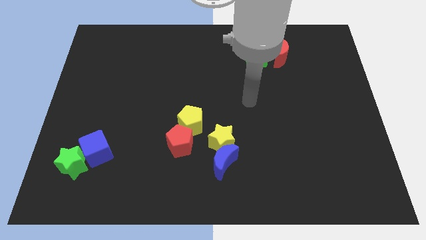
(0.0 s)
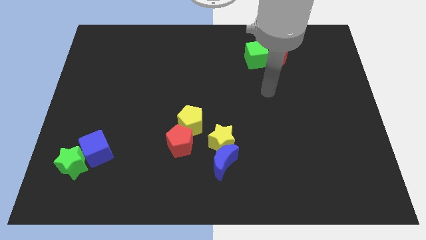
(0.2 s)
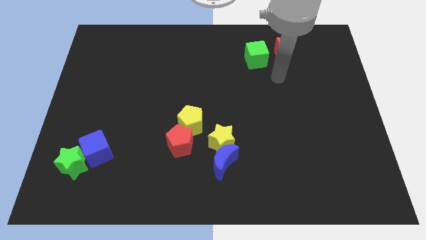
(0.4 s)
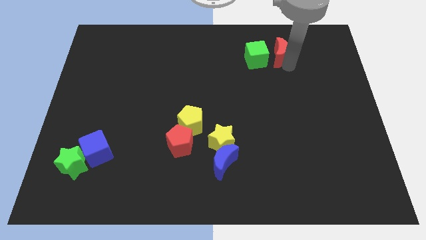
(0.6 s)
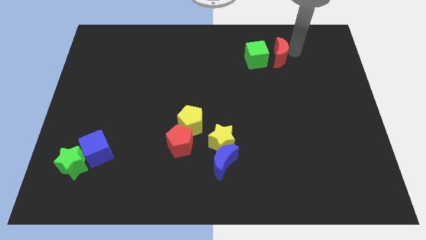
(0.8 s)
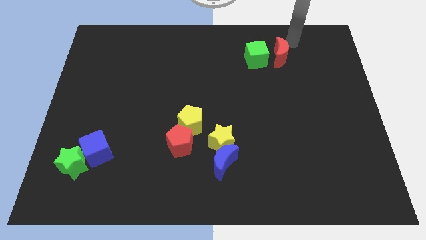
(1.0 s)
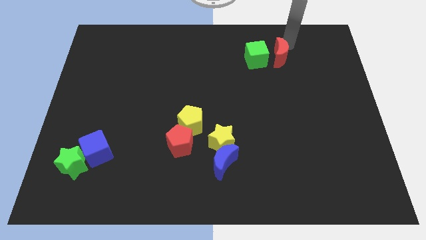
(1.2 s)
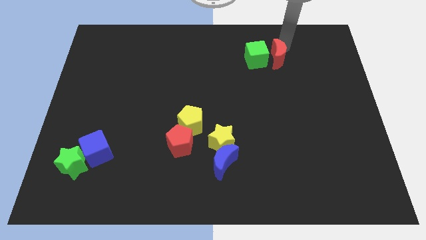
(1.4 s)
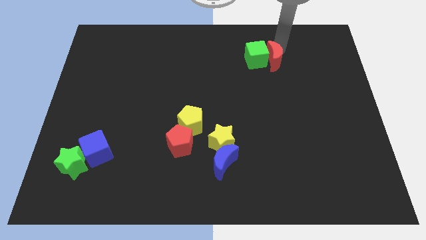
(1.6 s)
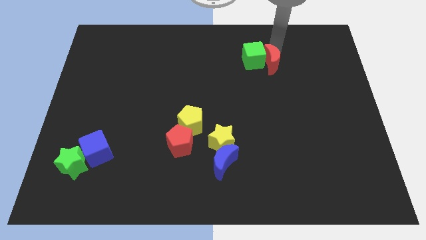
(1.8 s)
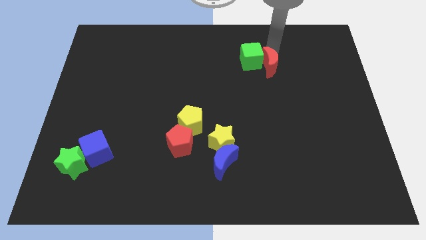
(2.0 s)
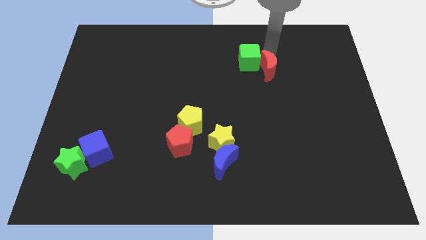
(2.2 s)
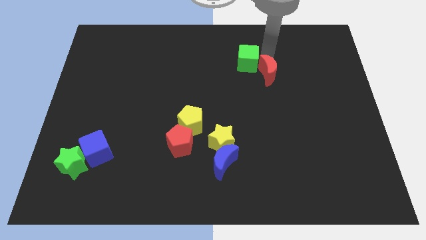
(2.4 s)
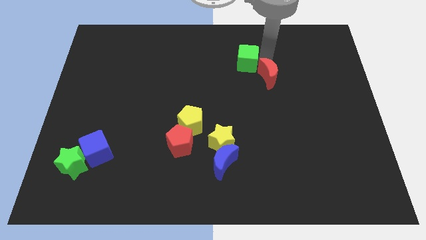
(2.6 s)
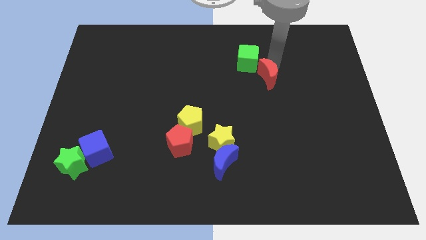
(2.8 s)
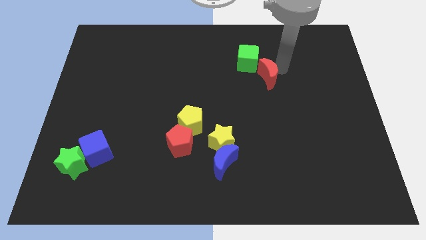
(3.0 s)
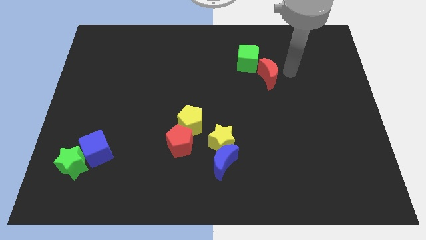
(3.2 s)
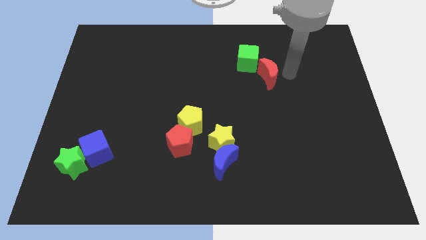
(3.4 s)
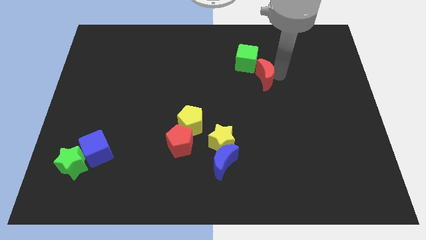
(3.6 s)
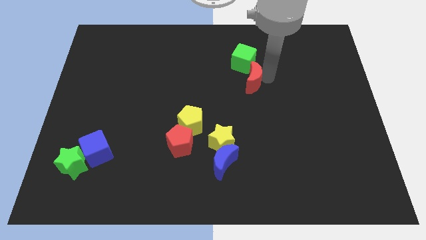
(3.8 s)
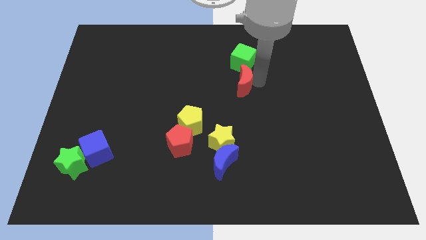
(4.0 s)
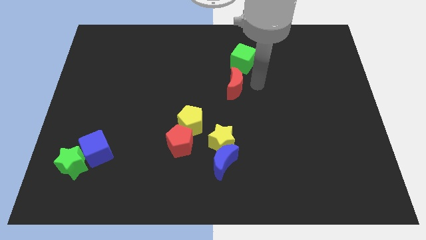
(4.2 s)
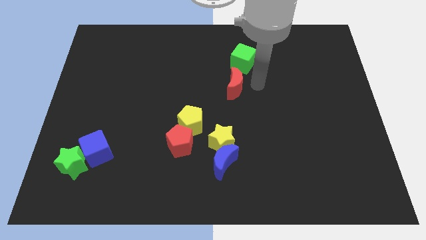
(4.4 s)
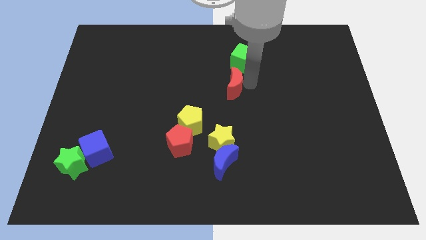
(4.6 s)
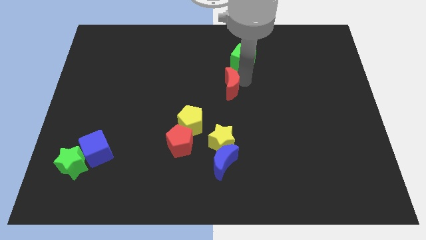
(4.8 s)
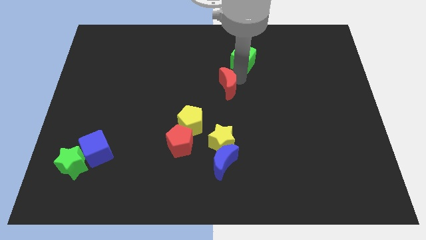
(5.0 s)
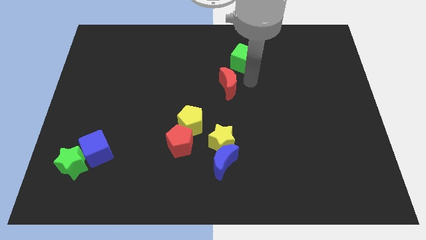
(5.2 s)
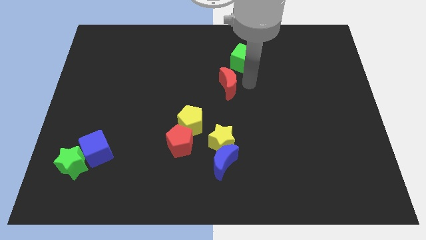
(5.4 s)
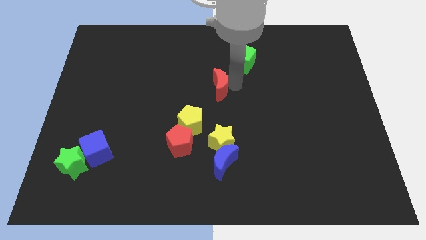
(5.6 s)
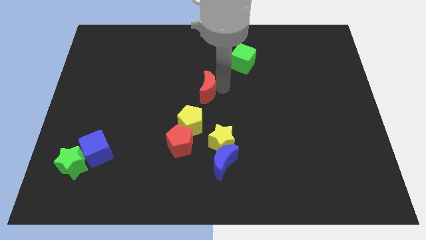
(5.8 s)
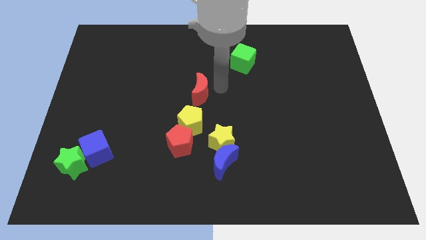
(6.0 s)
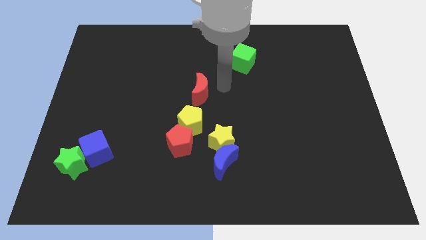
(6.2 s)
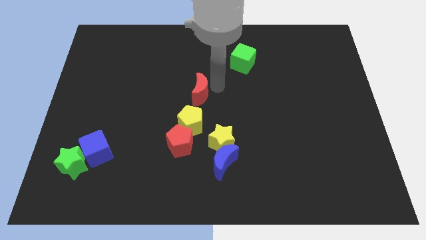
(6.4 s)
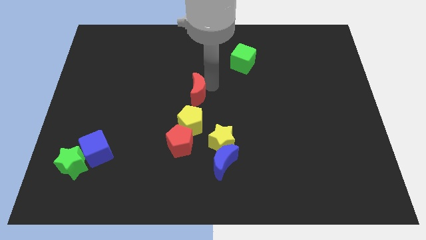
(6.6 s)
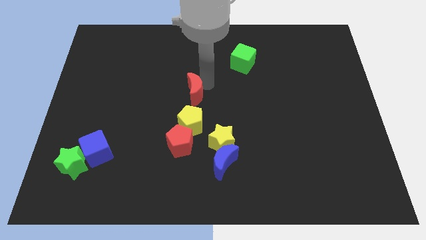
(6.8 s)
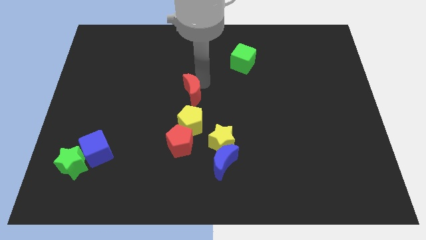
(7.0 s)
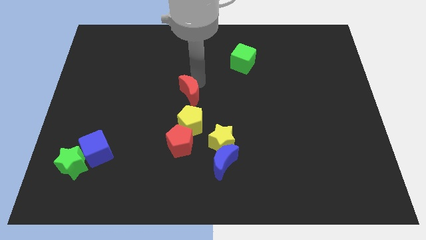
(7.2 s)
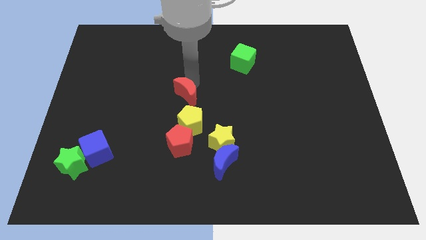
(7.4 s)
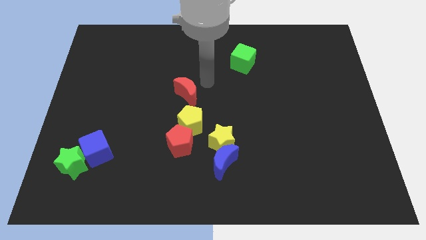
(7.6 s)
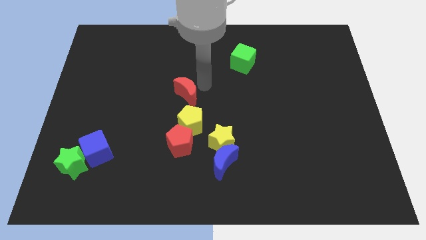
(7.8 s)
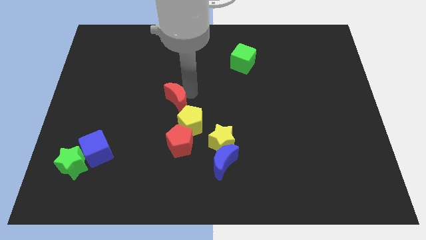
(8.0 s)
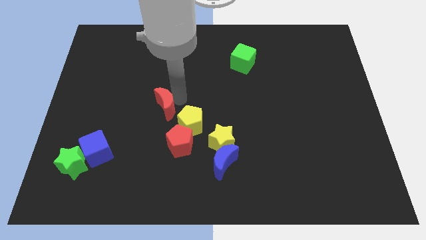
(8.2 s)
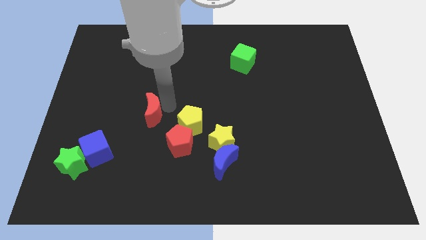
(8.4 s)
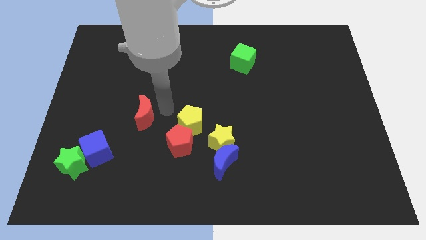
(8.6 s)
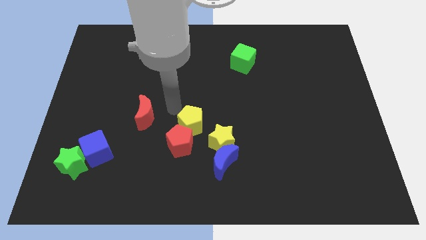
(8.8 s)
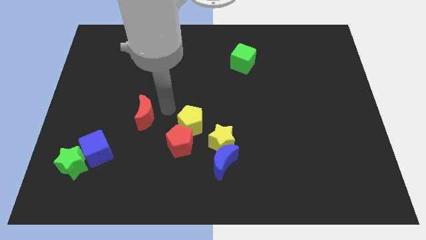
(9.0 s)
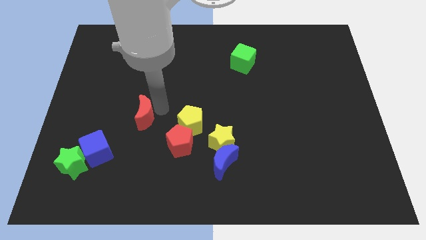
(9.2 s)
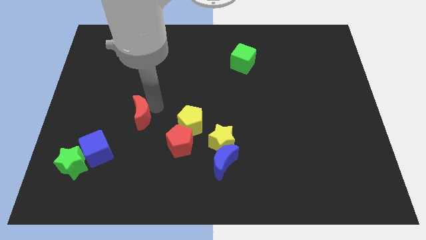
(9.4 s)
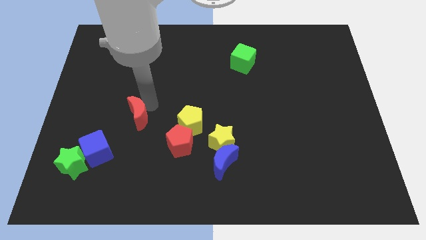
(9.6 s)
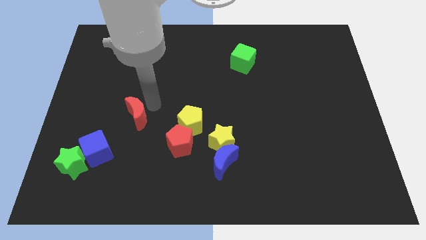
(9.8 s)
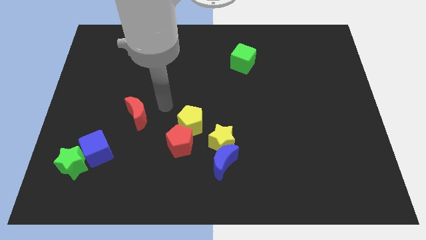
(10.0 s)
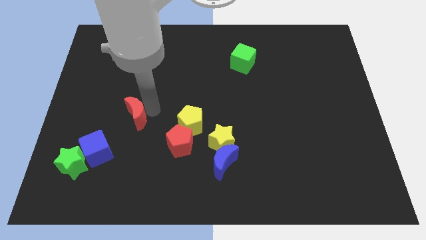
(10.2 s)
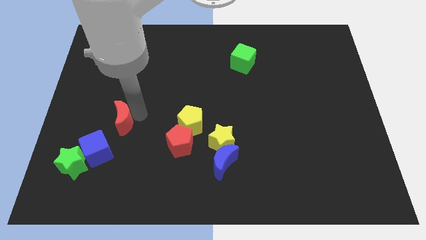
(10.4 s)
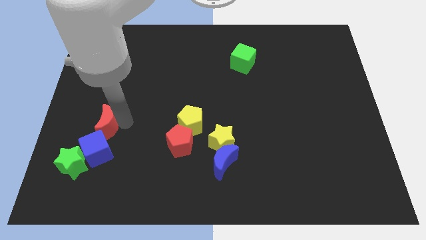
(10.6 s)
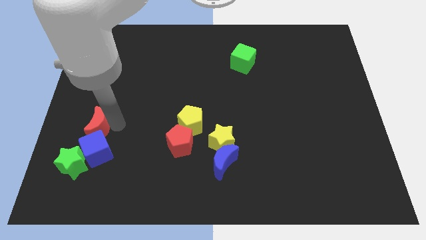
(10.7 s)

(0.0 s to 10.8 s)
push the red moon above the green star

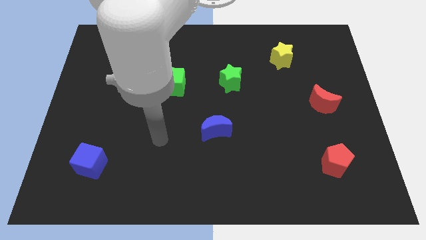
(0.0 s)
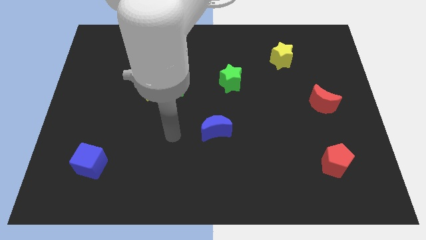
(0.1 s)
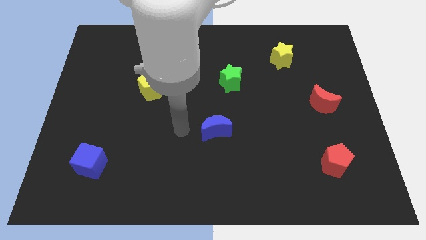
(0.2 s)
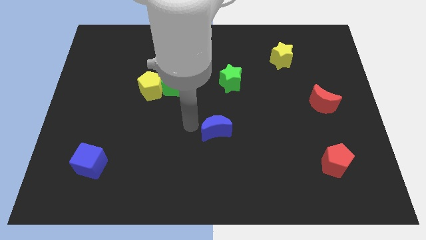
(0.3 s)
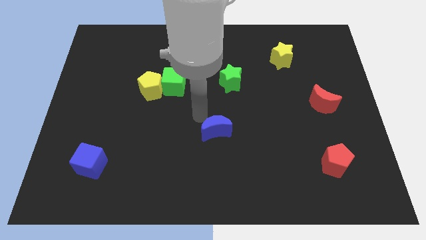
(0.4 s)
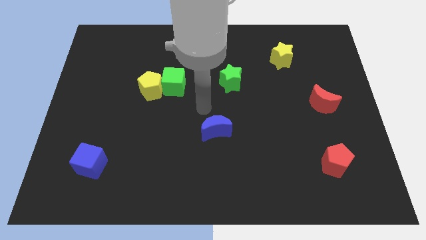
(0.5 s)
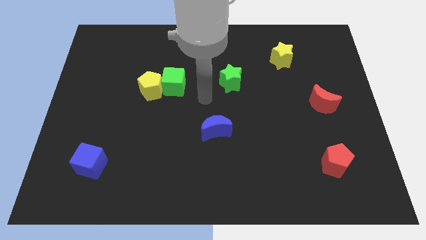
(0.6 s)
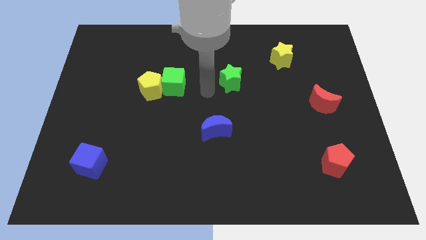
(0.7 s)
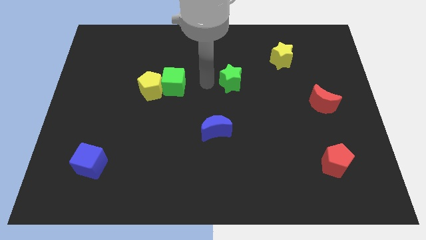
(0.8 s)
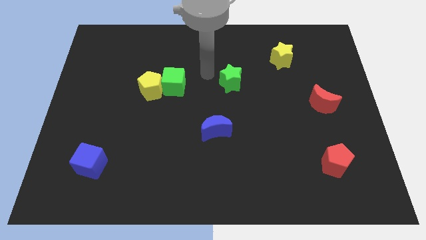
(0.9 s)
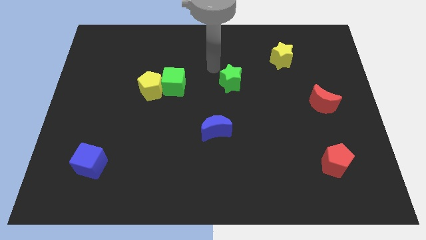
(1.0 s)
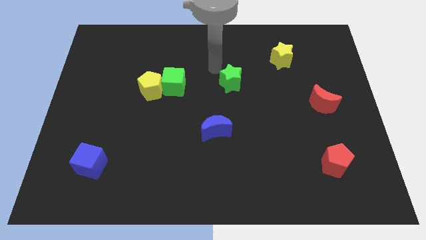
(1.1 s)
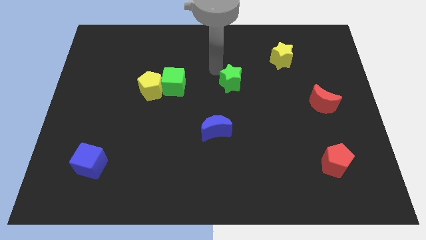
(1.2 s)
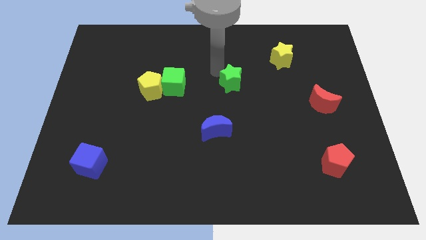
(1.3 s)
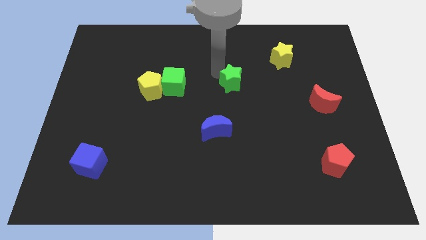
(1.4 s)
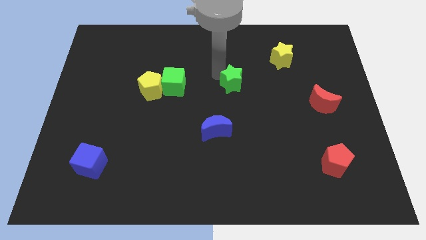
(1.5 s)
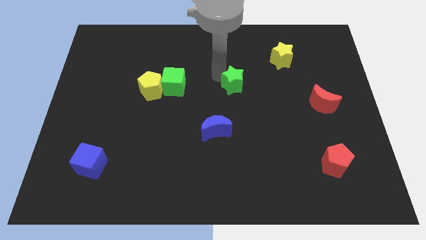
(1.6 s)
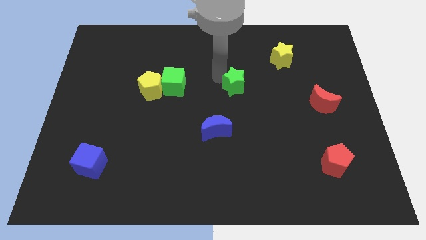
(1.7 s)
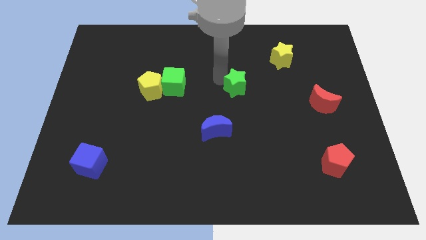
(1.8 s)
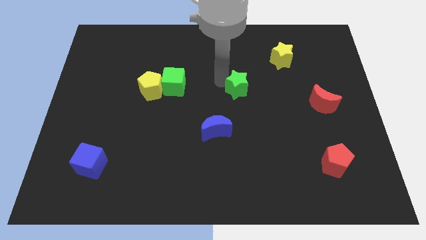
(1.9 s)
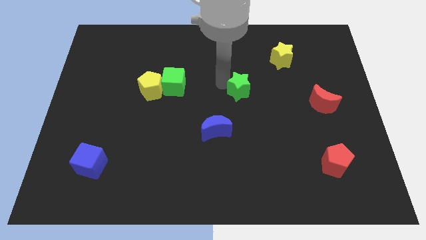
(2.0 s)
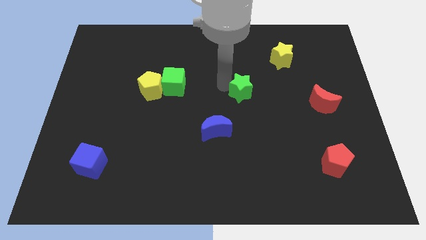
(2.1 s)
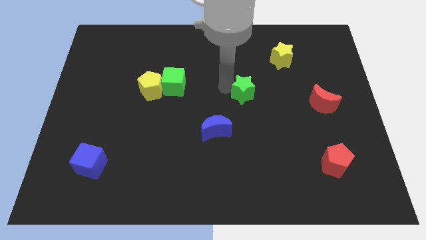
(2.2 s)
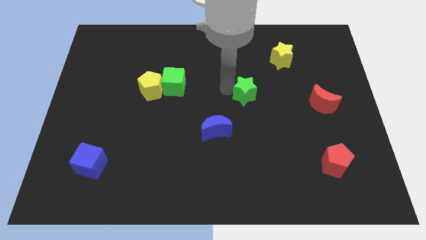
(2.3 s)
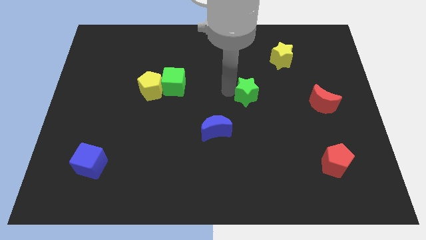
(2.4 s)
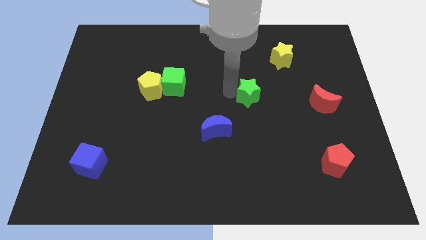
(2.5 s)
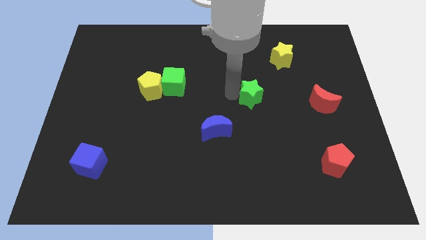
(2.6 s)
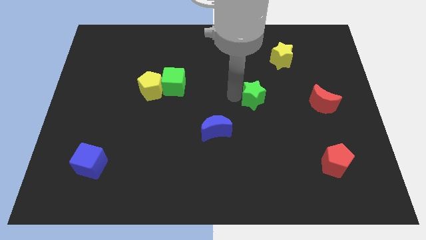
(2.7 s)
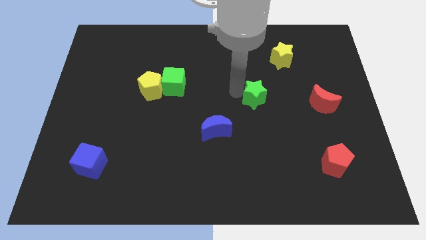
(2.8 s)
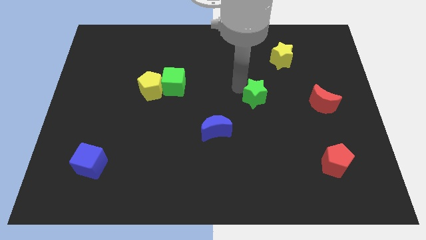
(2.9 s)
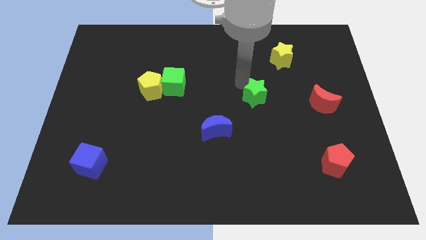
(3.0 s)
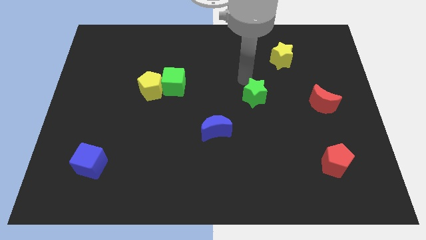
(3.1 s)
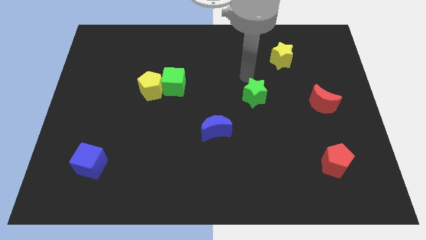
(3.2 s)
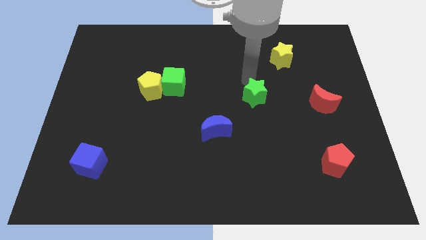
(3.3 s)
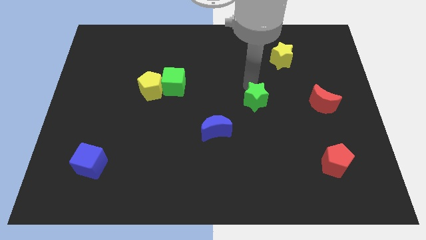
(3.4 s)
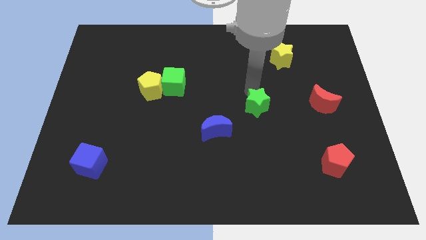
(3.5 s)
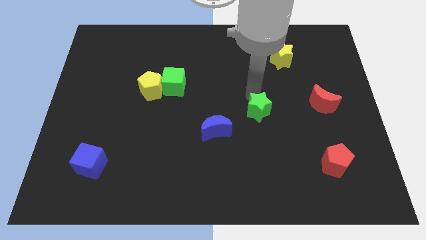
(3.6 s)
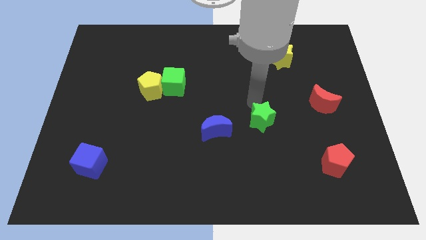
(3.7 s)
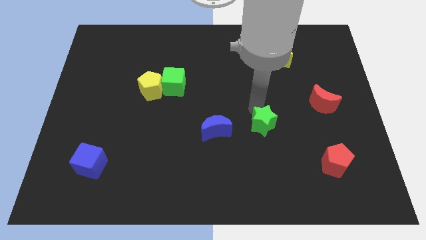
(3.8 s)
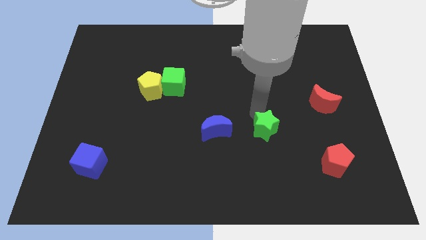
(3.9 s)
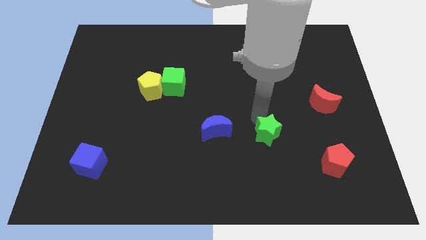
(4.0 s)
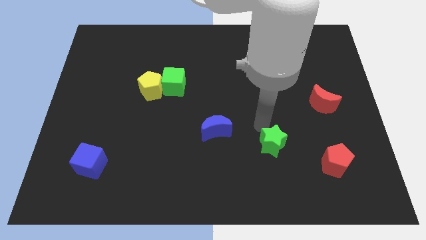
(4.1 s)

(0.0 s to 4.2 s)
put the green star to the left side of the red pentagon
